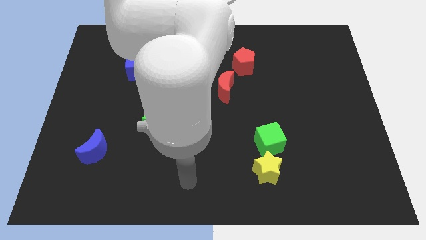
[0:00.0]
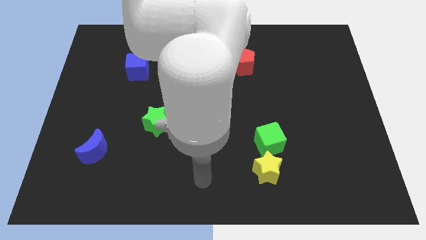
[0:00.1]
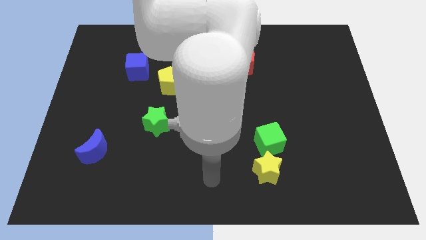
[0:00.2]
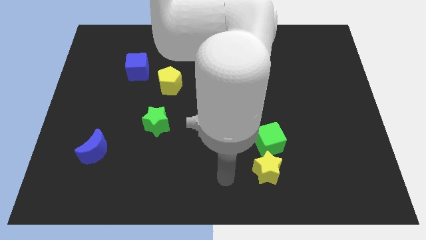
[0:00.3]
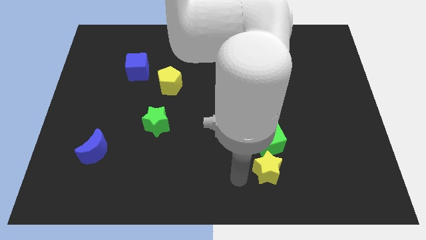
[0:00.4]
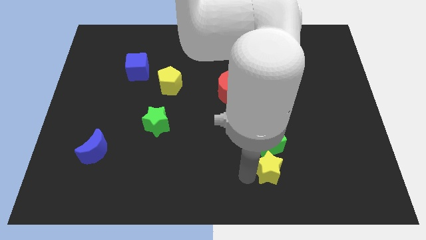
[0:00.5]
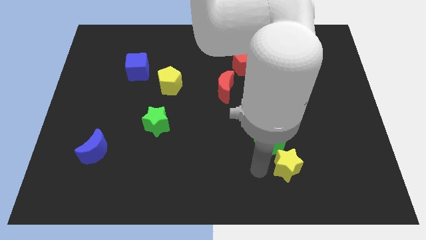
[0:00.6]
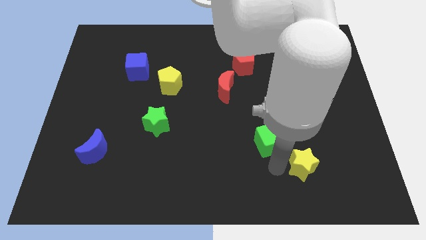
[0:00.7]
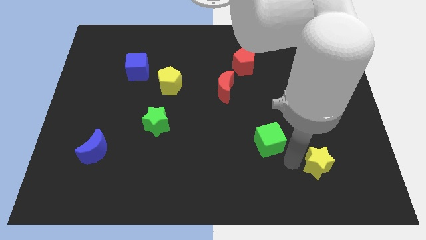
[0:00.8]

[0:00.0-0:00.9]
separate the green cube from the yellow star

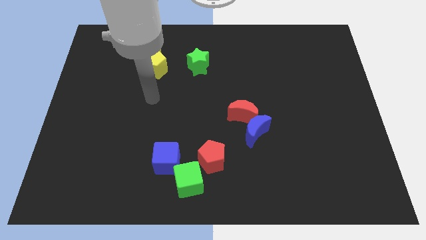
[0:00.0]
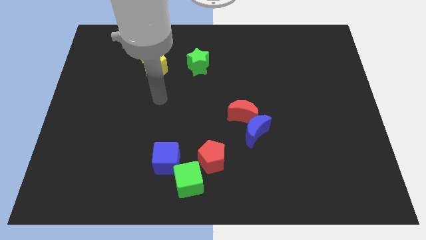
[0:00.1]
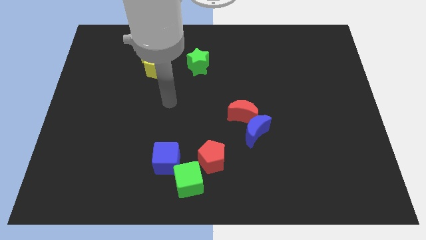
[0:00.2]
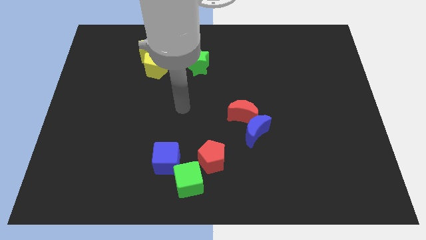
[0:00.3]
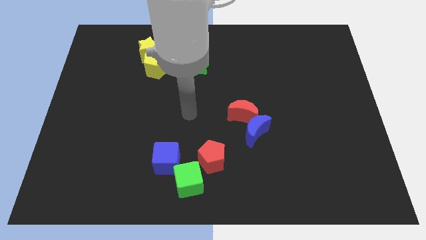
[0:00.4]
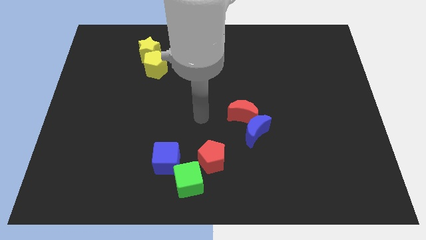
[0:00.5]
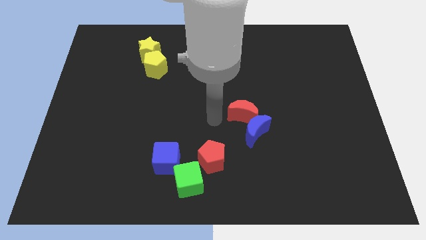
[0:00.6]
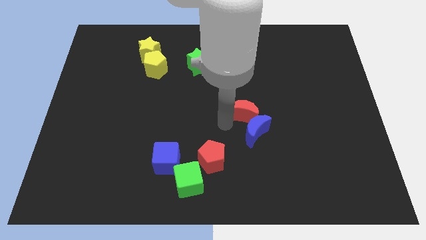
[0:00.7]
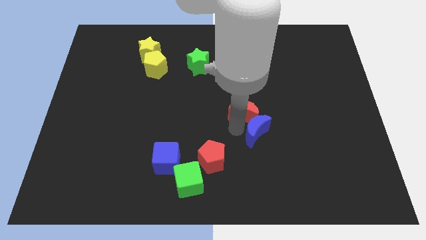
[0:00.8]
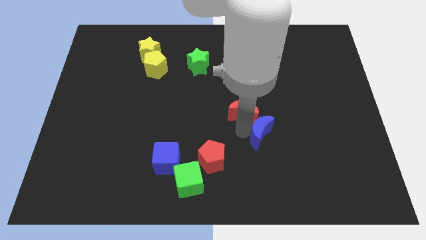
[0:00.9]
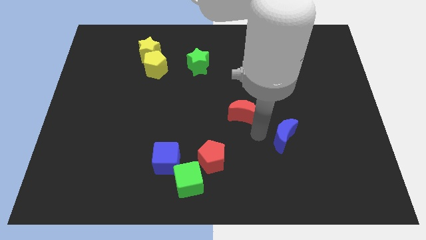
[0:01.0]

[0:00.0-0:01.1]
pull the red moon apart from the blue moon

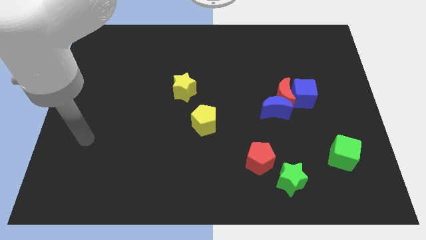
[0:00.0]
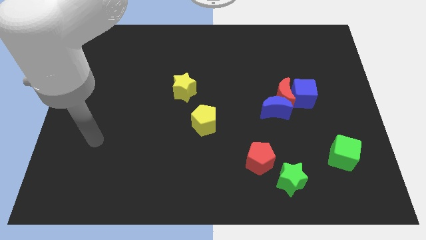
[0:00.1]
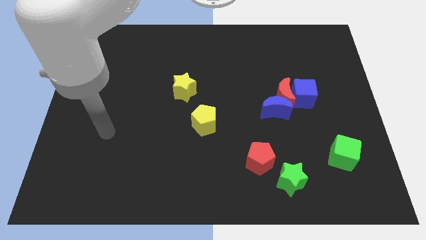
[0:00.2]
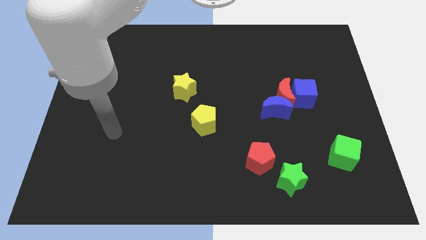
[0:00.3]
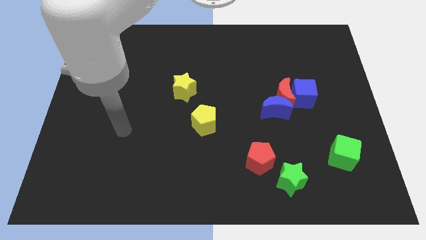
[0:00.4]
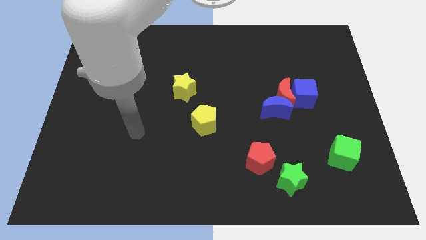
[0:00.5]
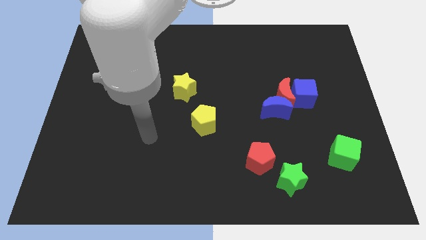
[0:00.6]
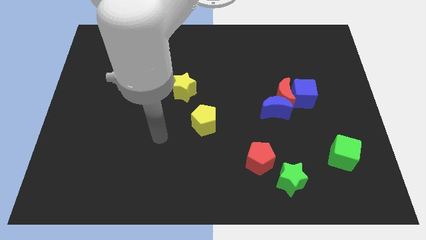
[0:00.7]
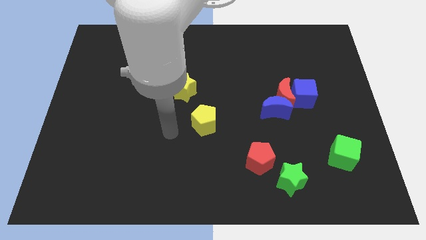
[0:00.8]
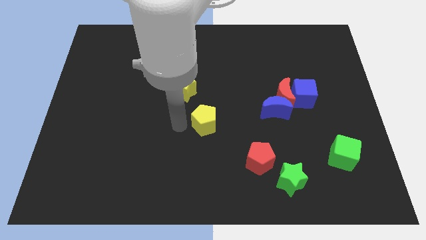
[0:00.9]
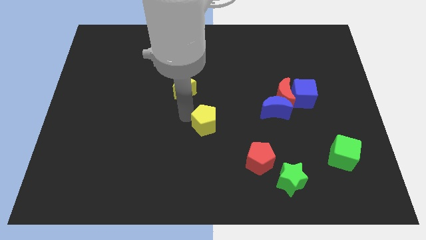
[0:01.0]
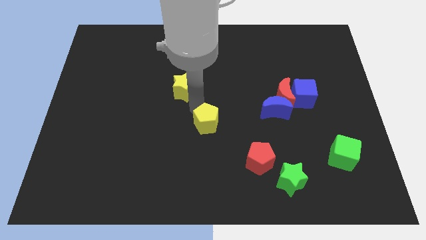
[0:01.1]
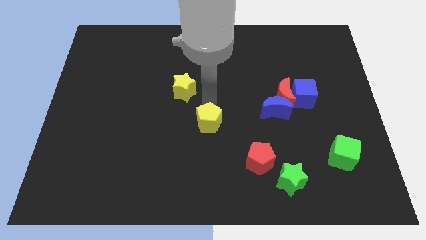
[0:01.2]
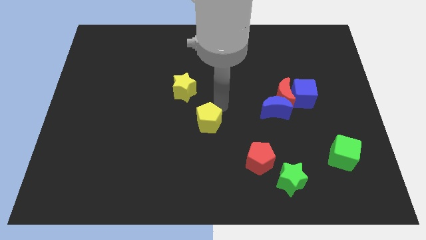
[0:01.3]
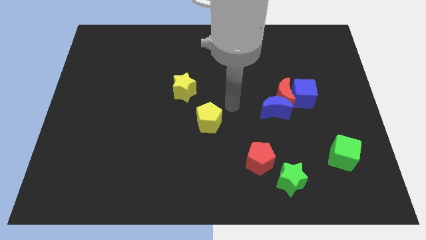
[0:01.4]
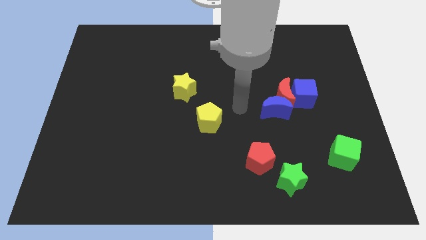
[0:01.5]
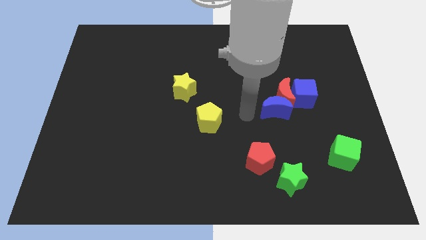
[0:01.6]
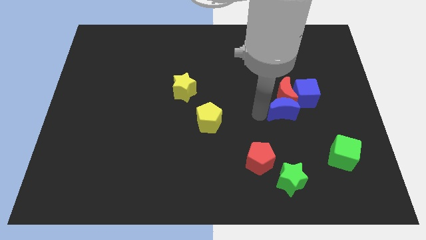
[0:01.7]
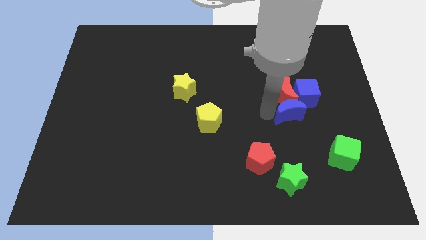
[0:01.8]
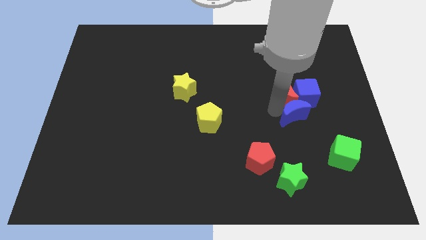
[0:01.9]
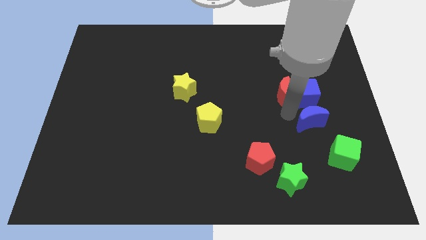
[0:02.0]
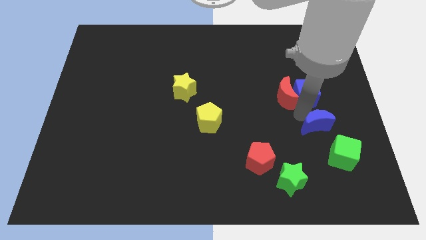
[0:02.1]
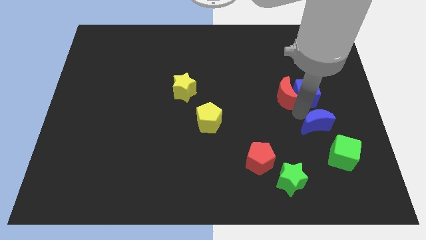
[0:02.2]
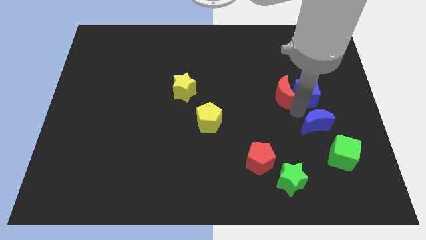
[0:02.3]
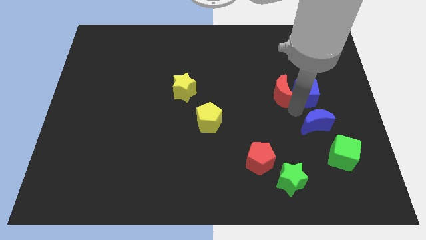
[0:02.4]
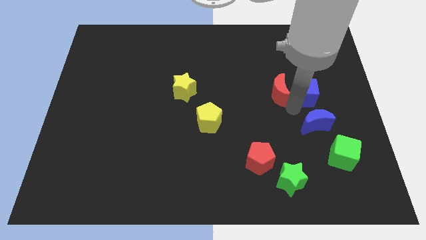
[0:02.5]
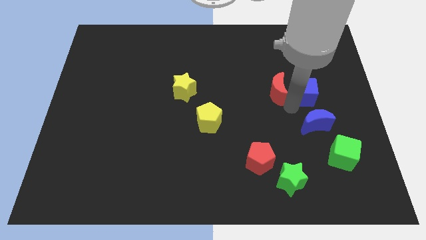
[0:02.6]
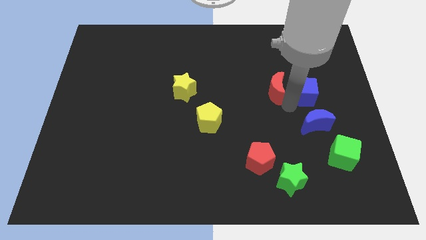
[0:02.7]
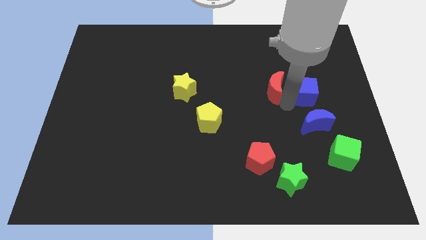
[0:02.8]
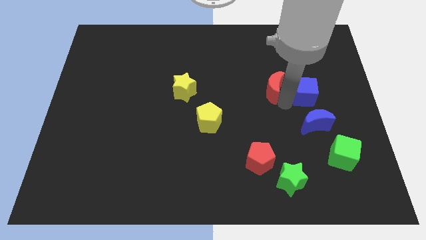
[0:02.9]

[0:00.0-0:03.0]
separate the red moon from the blue moon and blue cube

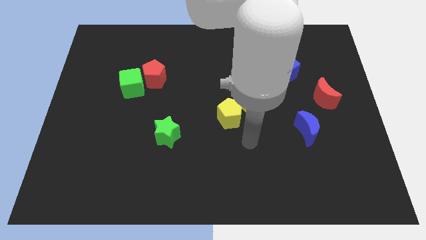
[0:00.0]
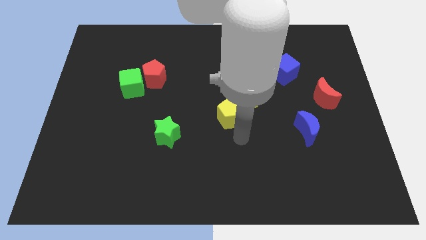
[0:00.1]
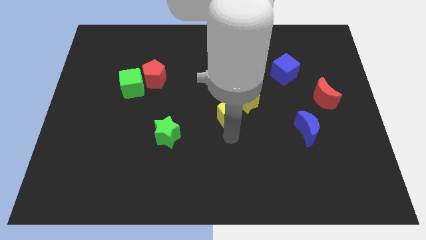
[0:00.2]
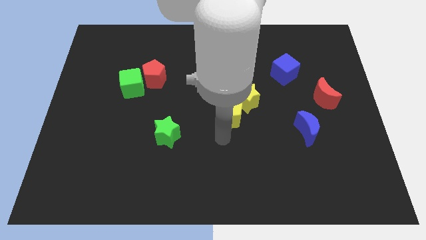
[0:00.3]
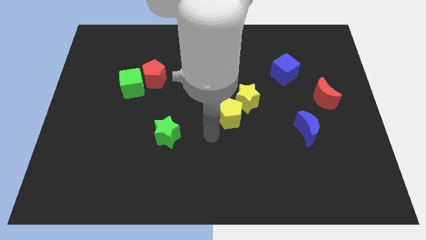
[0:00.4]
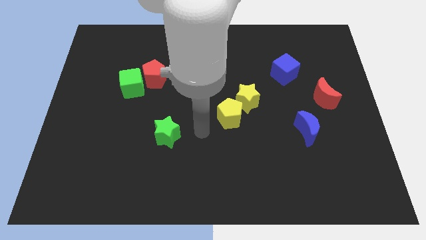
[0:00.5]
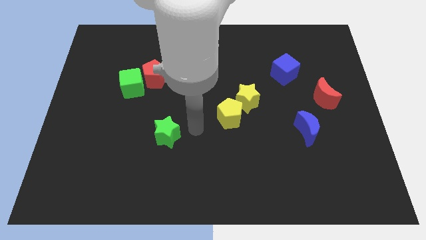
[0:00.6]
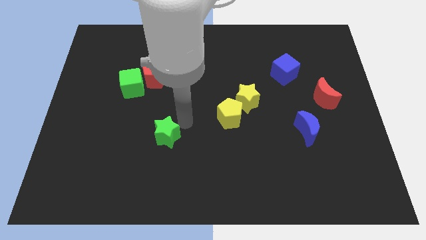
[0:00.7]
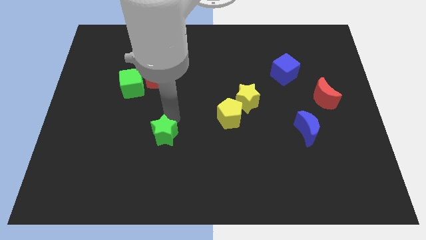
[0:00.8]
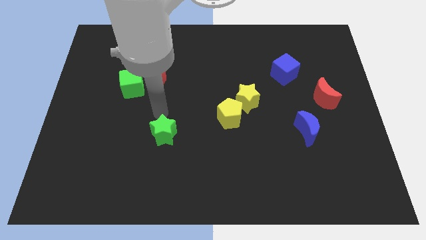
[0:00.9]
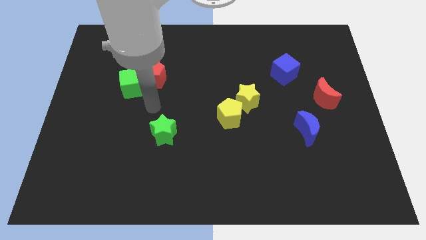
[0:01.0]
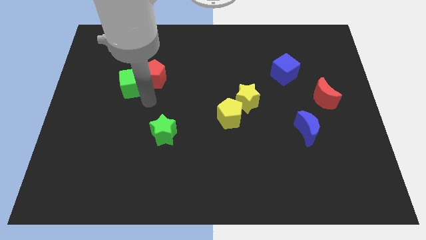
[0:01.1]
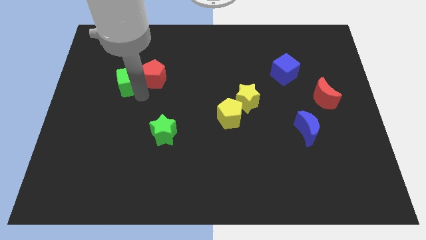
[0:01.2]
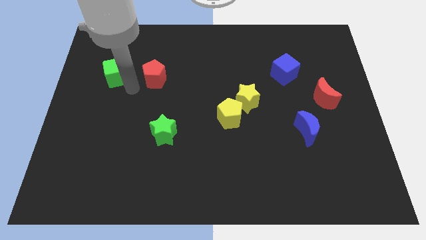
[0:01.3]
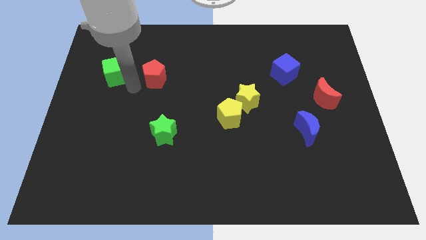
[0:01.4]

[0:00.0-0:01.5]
move the red pentagon away from the green cube

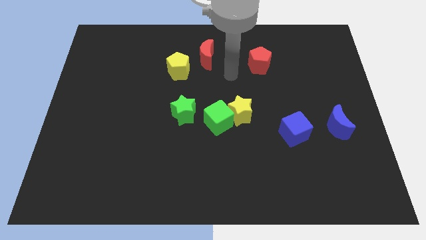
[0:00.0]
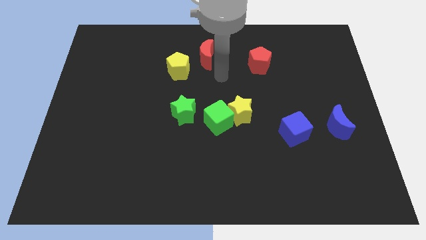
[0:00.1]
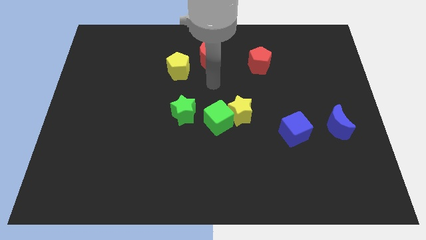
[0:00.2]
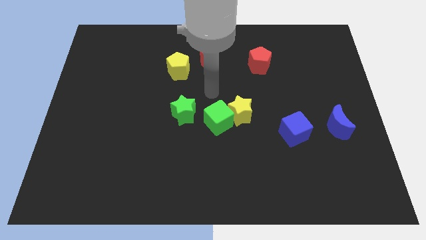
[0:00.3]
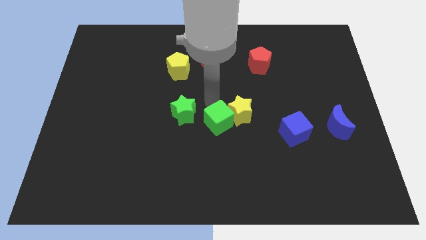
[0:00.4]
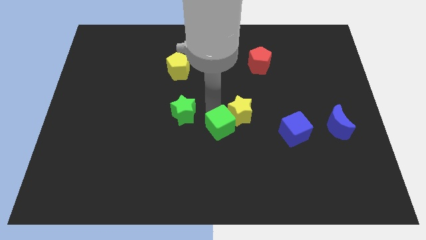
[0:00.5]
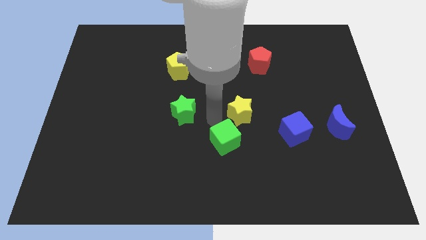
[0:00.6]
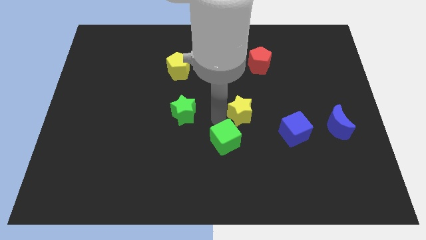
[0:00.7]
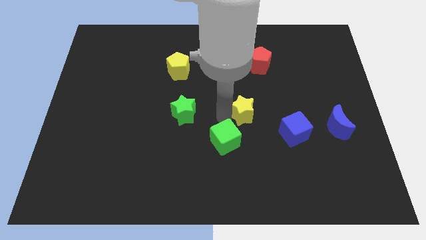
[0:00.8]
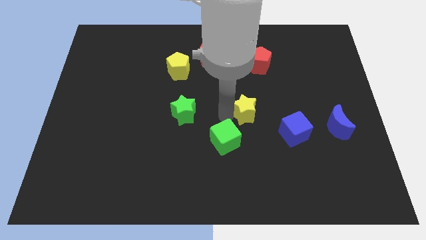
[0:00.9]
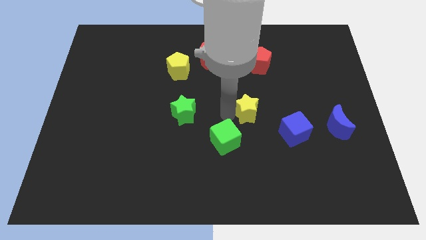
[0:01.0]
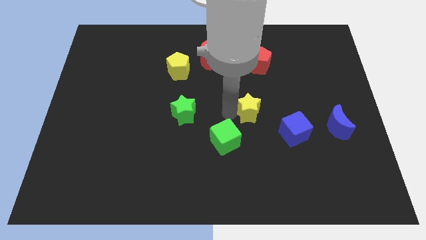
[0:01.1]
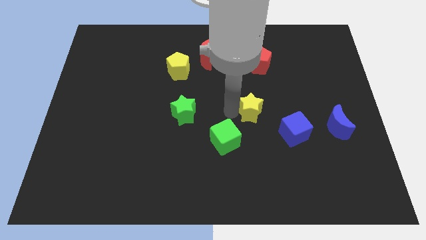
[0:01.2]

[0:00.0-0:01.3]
pull the yellow star apart from the green cube

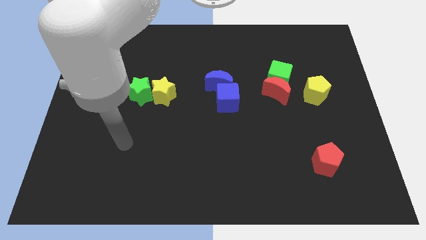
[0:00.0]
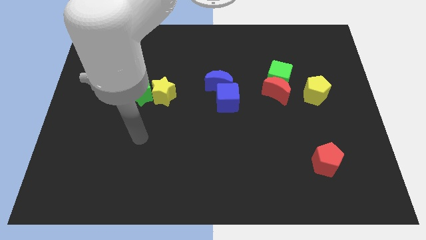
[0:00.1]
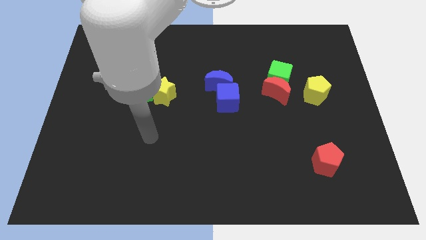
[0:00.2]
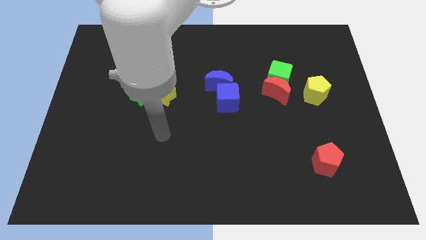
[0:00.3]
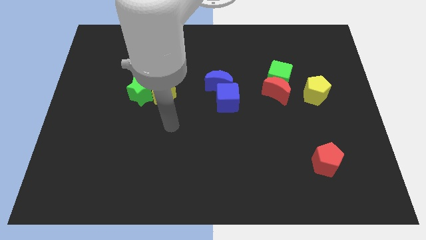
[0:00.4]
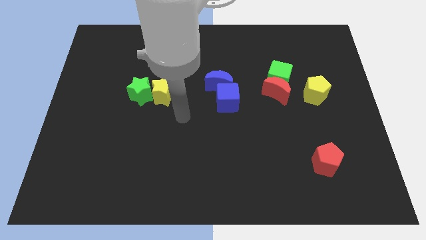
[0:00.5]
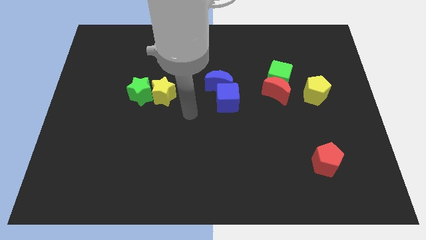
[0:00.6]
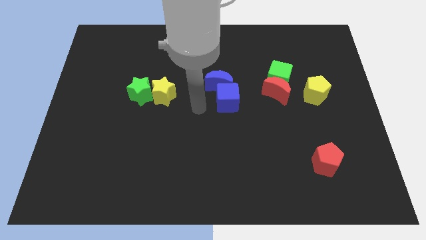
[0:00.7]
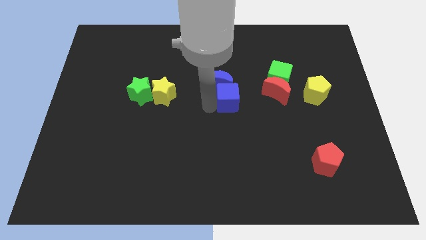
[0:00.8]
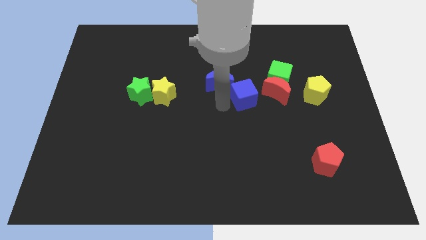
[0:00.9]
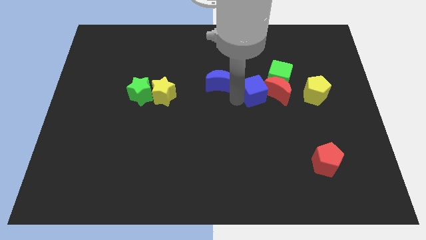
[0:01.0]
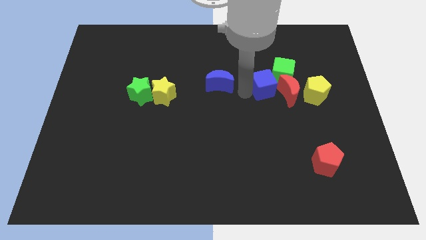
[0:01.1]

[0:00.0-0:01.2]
separate the blue moon from the blue cube

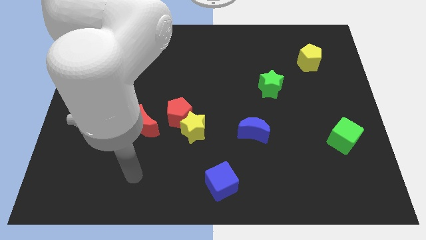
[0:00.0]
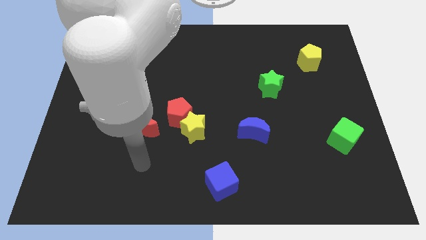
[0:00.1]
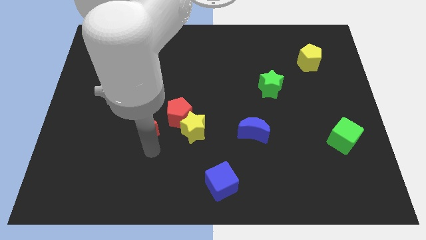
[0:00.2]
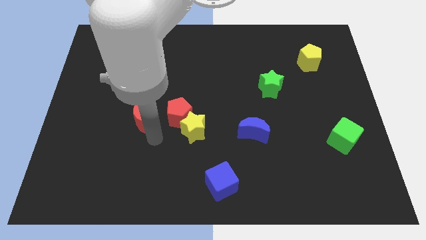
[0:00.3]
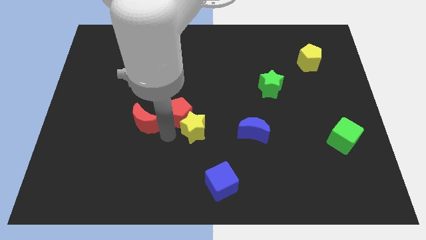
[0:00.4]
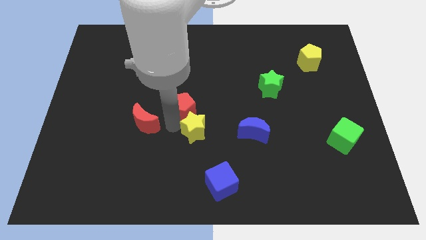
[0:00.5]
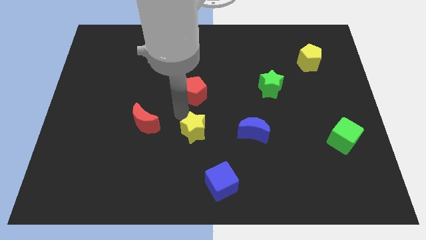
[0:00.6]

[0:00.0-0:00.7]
pull the yellow star apart from the red pentagon
